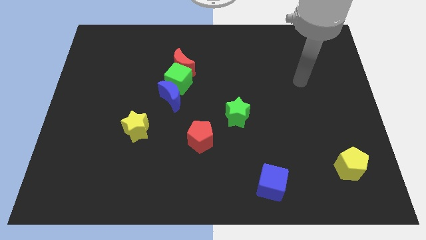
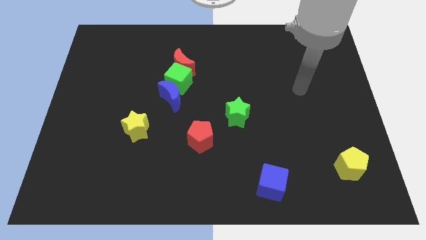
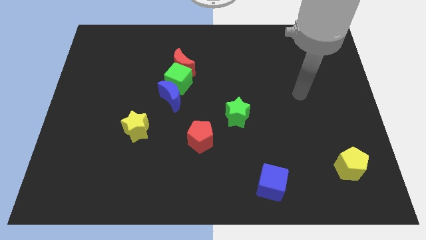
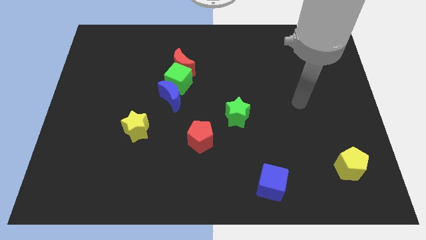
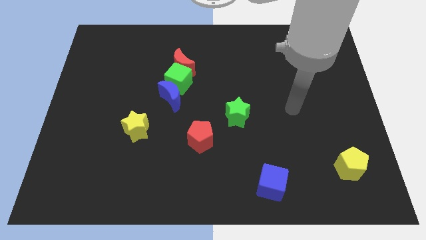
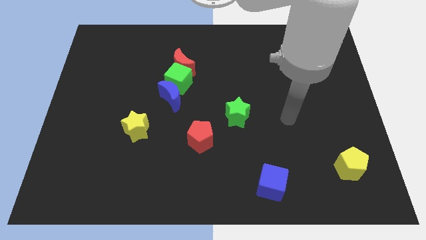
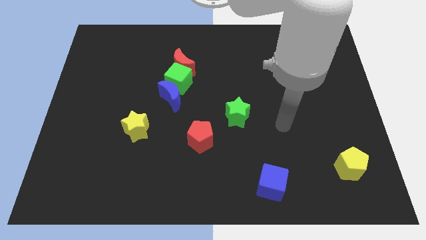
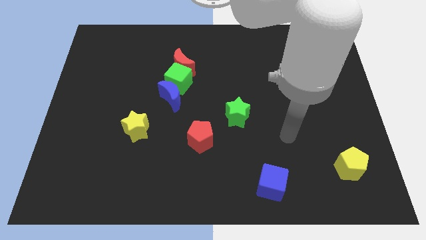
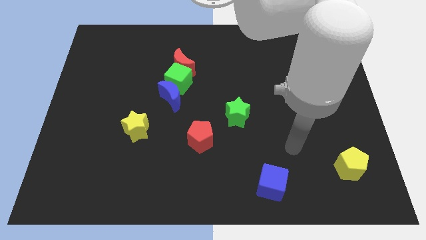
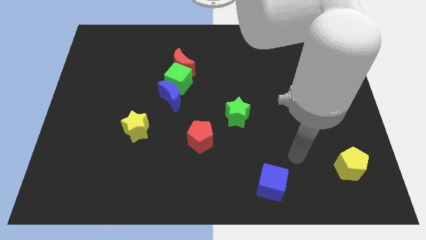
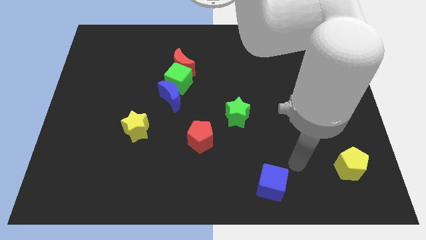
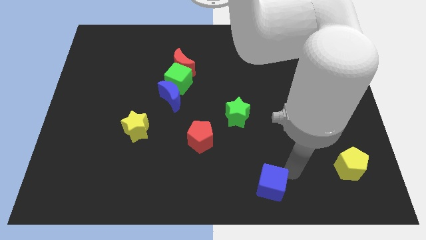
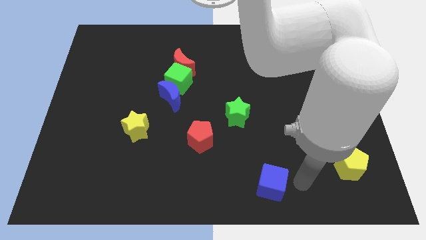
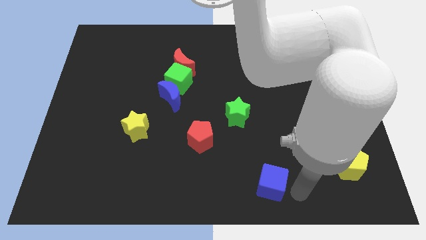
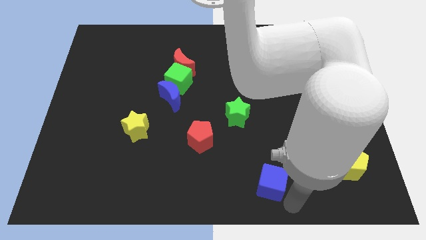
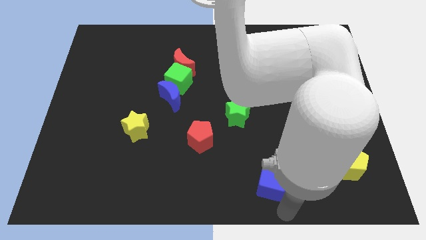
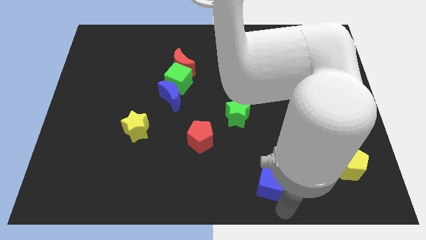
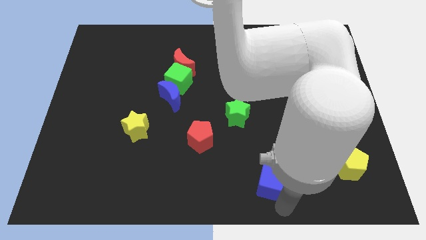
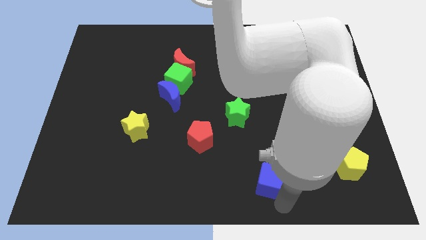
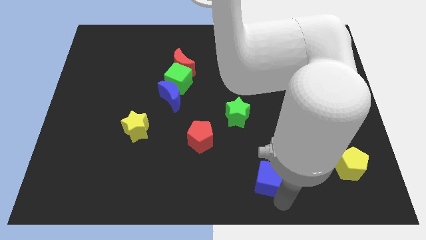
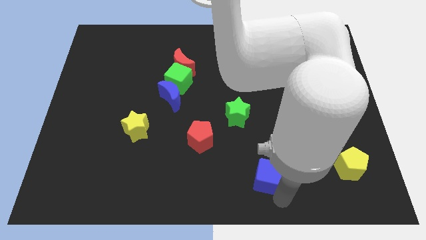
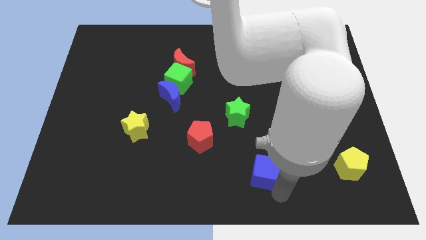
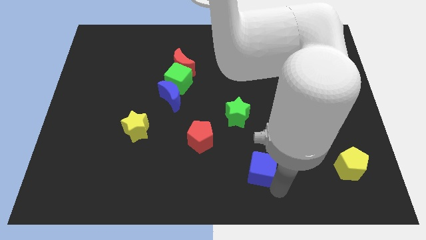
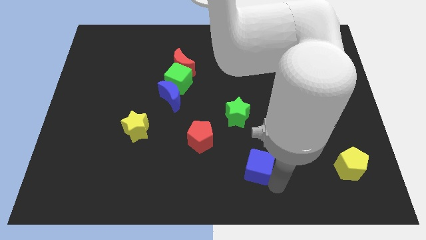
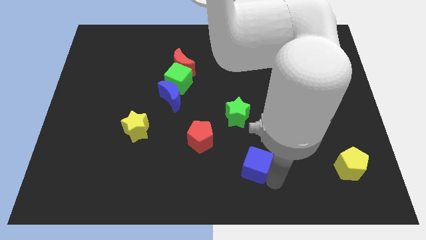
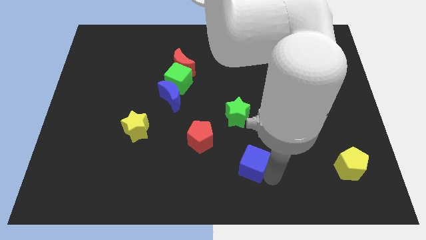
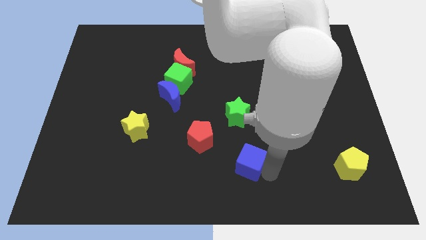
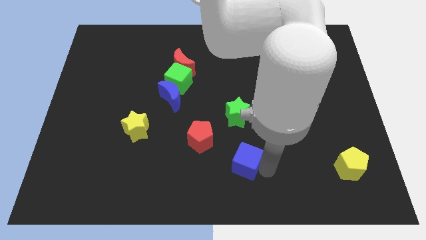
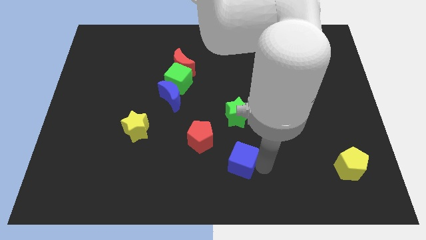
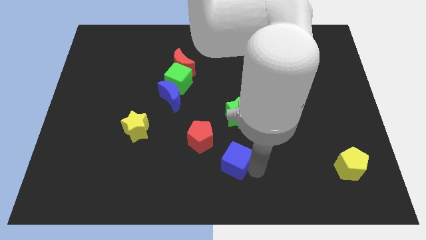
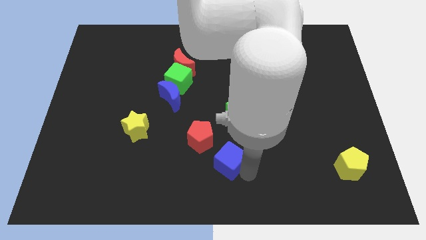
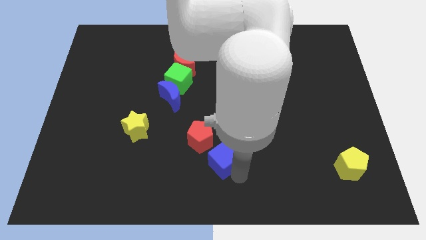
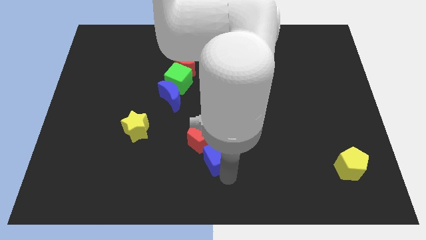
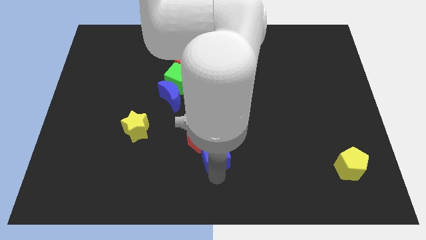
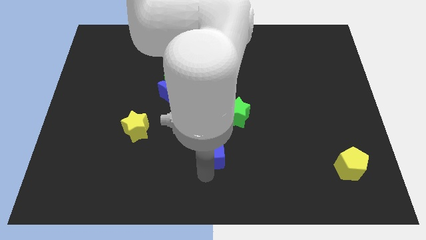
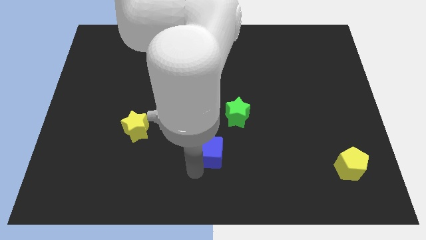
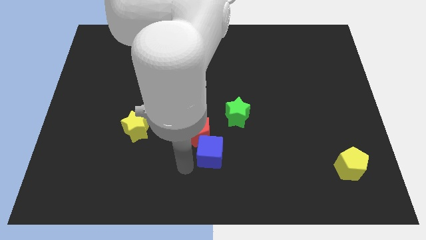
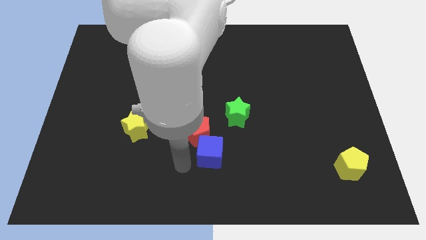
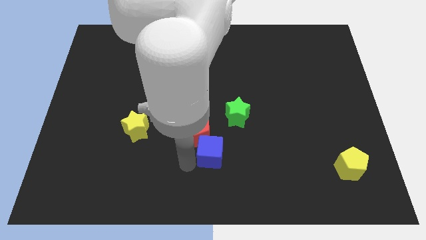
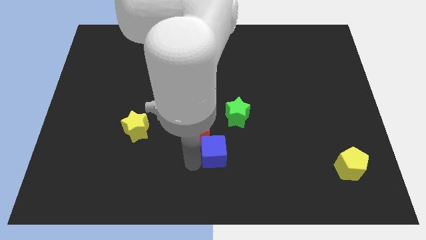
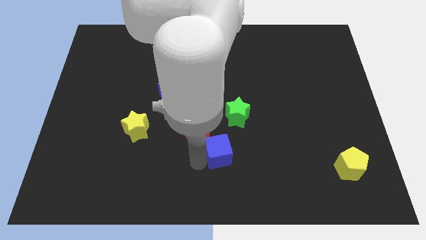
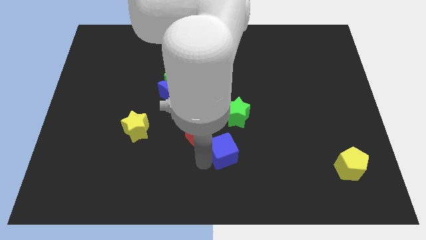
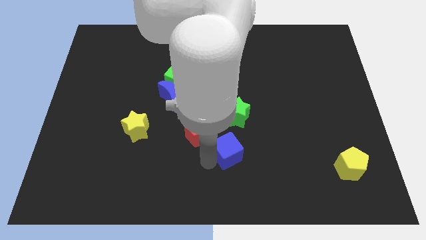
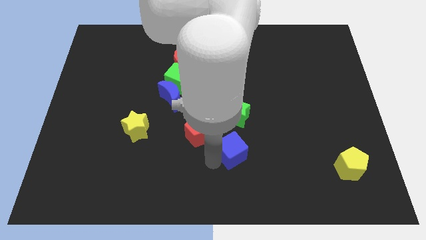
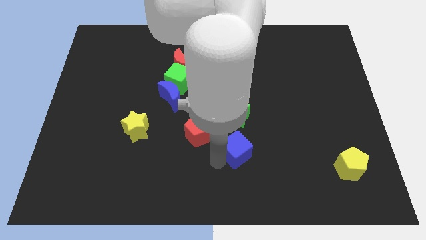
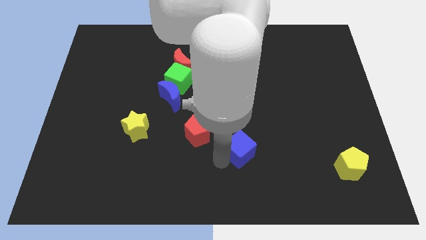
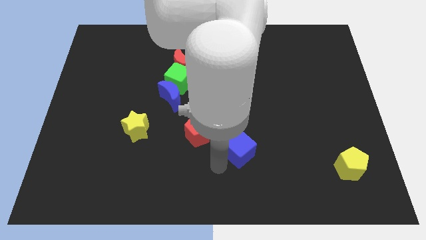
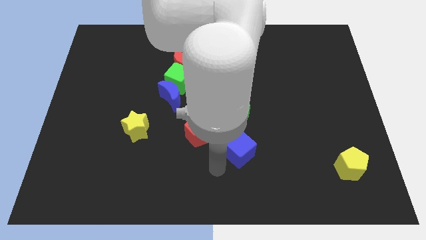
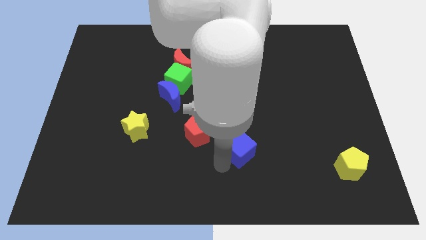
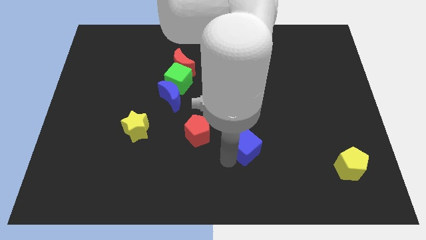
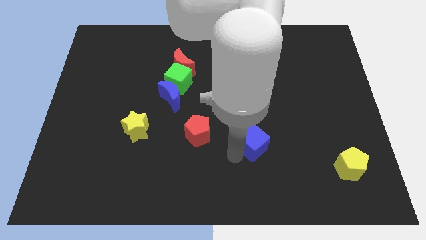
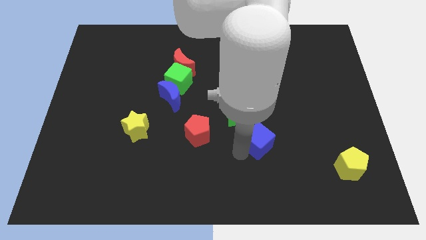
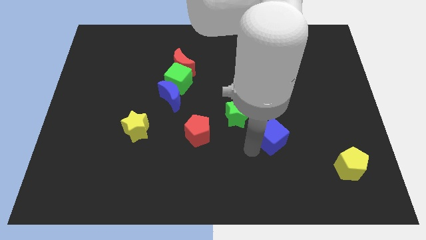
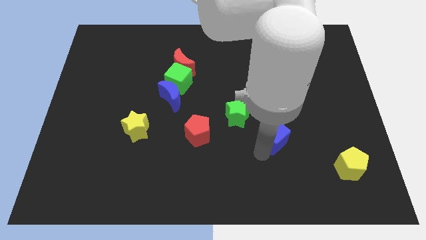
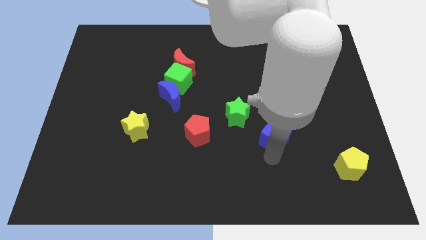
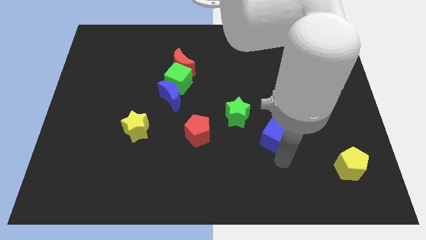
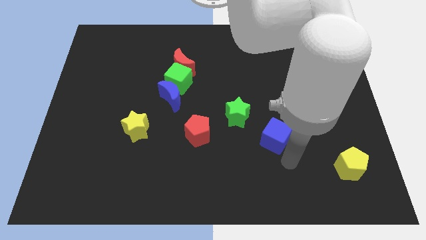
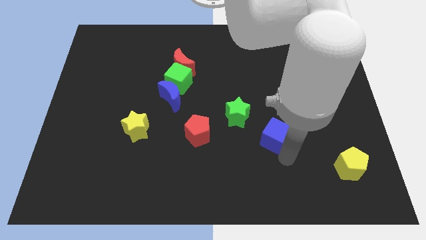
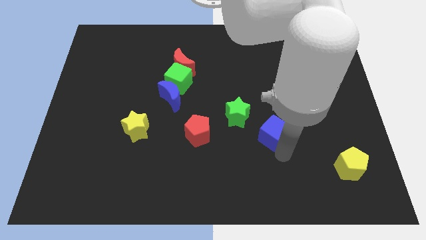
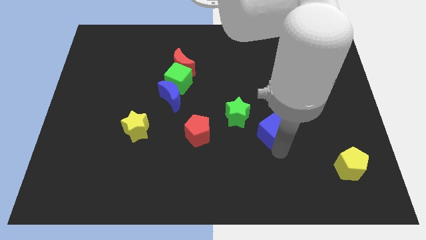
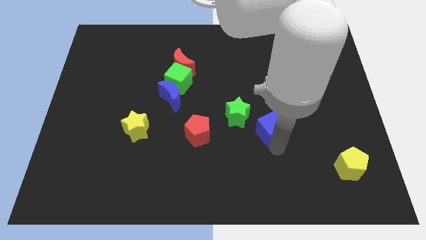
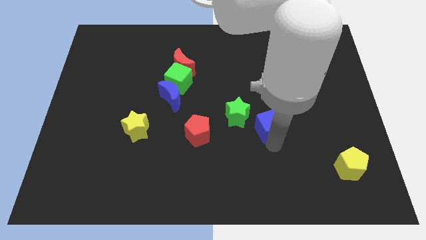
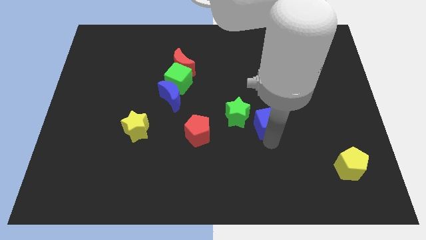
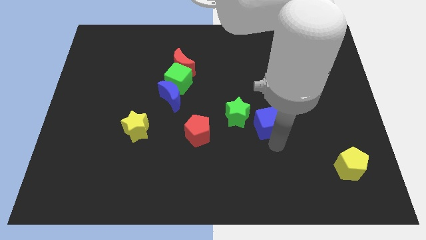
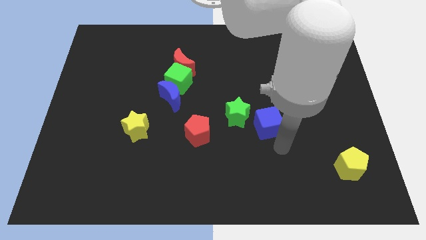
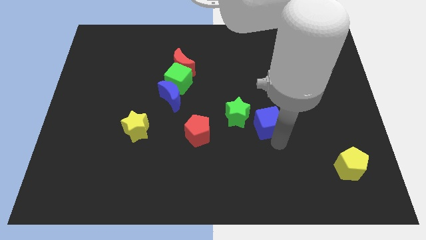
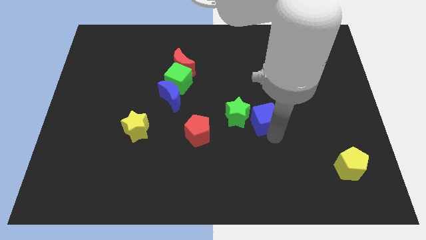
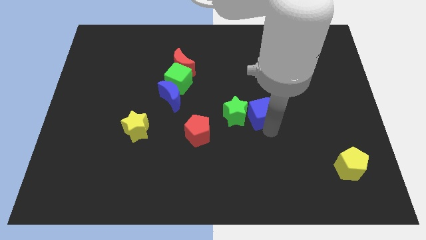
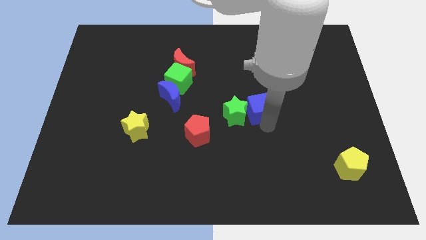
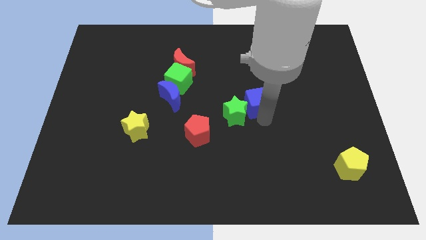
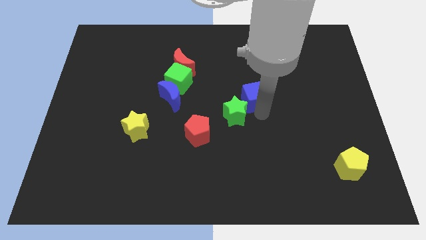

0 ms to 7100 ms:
move the blue cube above the green star

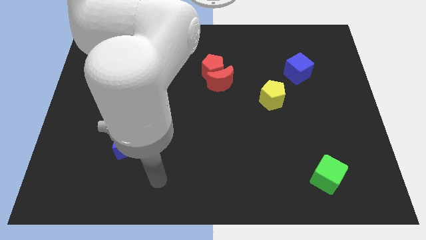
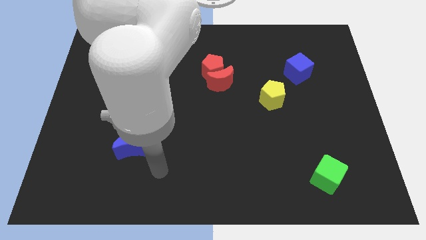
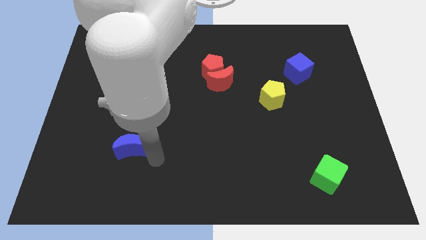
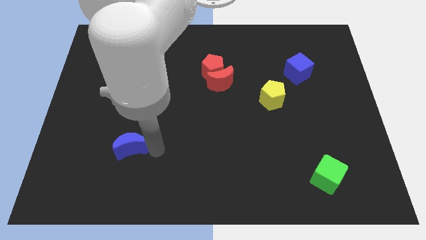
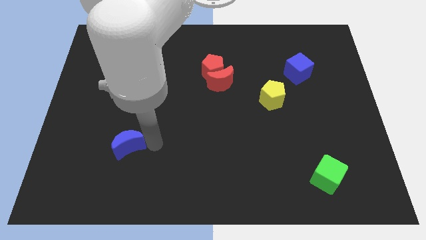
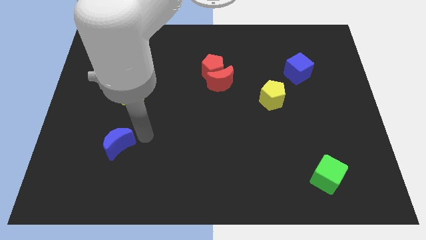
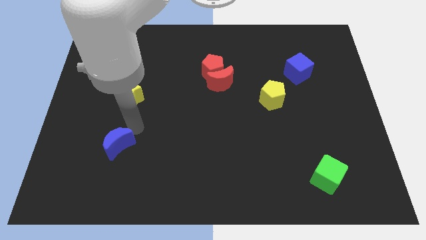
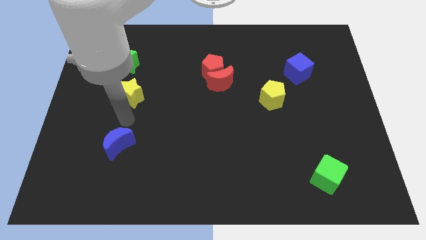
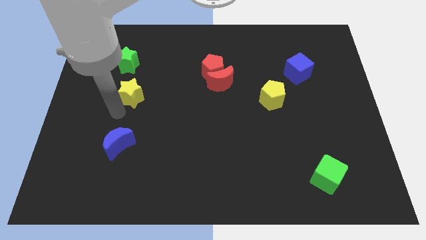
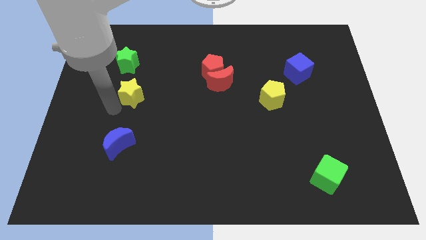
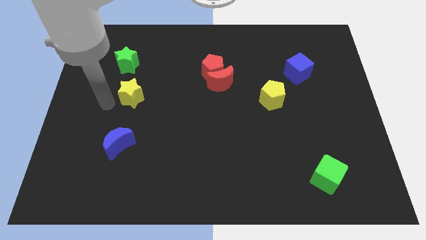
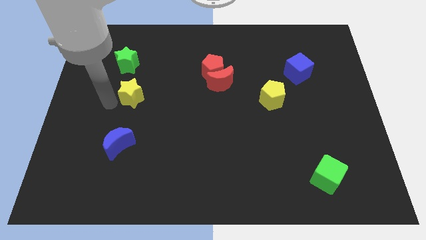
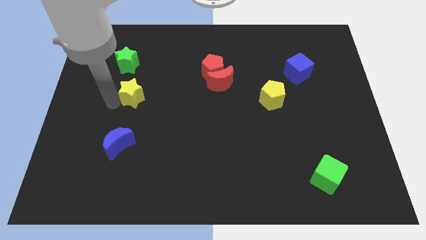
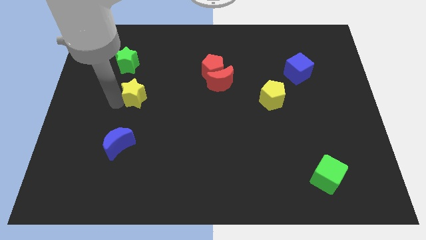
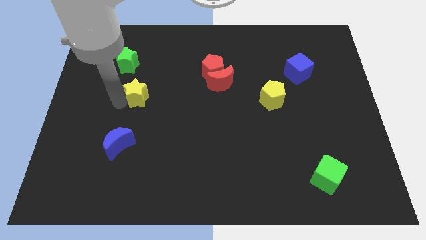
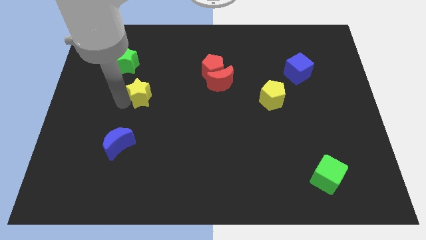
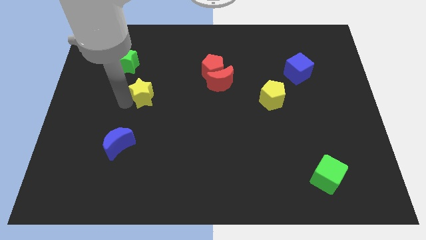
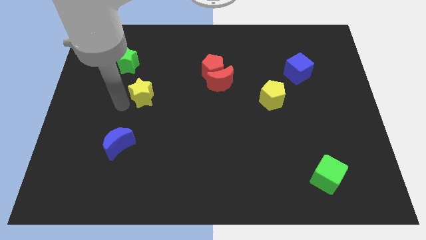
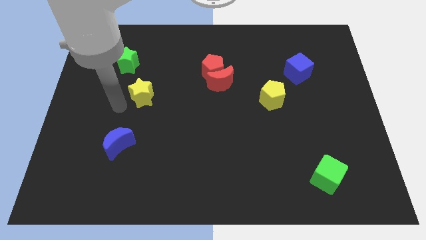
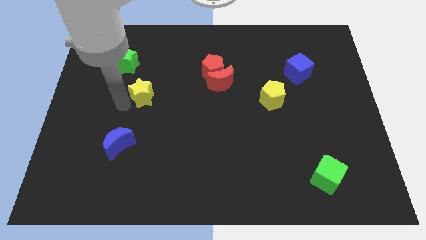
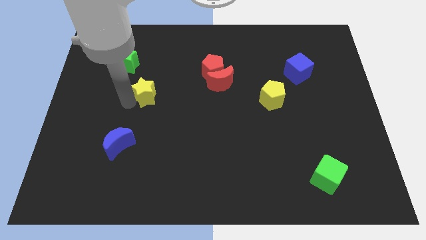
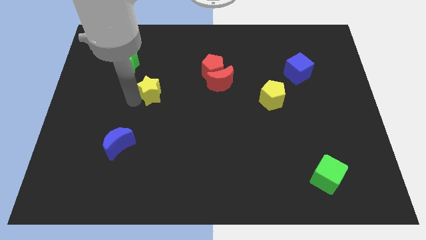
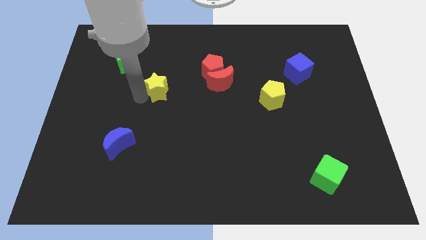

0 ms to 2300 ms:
move the yellow star to the left of the red moon
